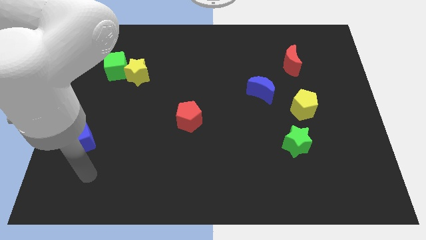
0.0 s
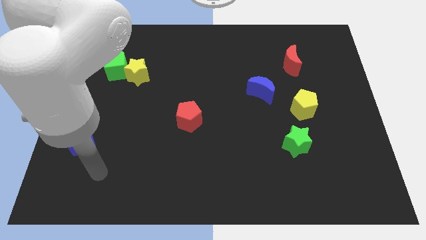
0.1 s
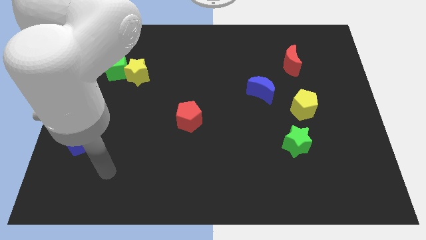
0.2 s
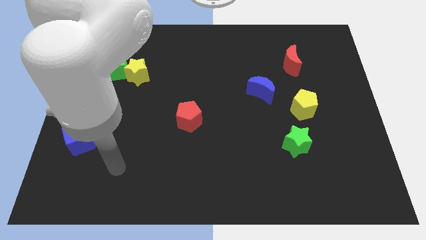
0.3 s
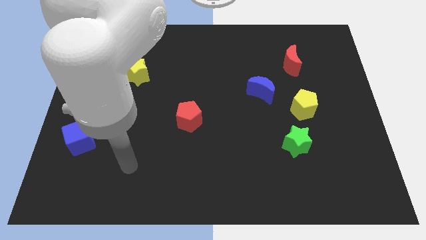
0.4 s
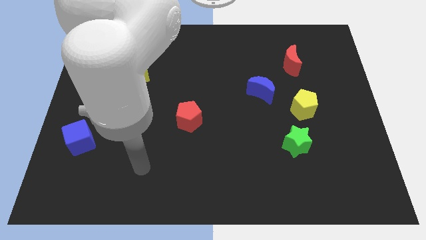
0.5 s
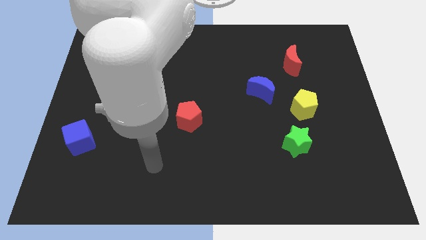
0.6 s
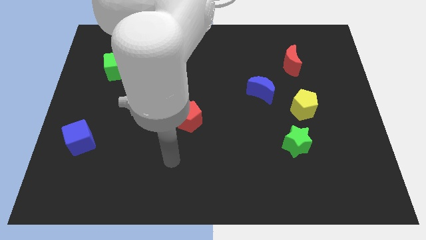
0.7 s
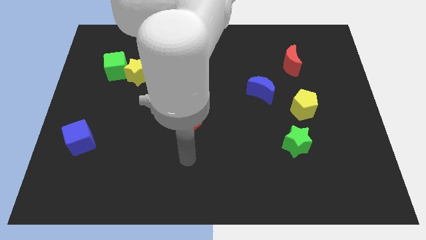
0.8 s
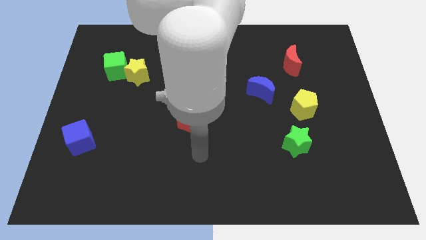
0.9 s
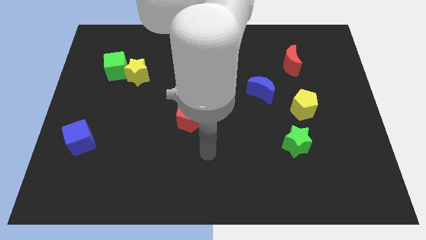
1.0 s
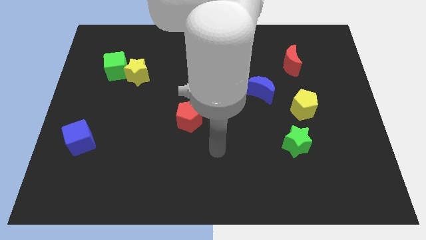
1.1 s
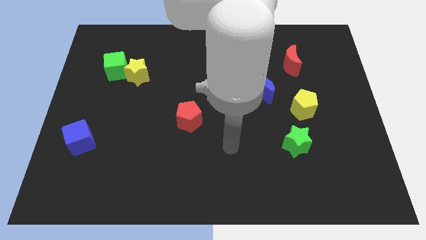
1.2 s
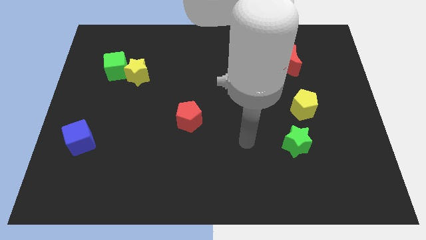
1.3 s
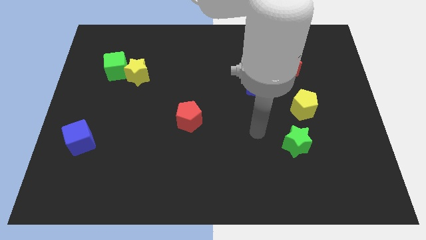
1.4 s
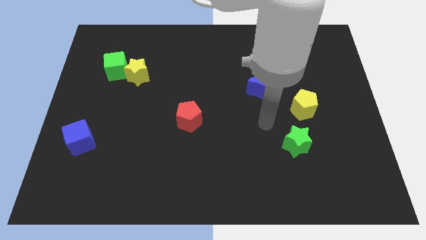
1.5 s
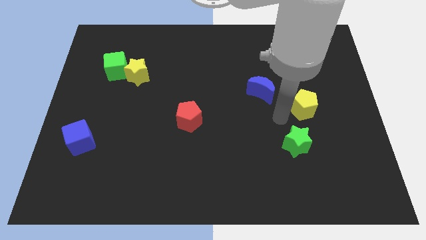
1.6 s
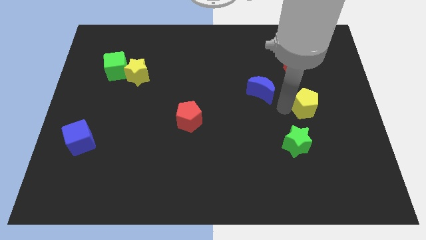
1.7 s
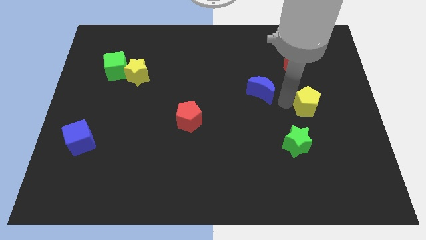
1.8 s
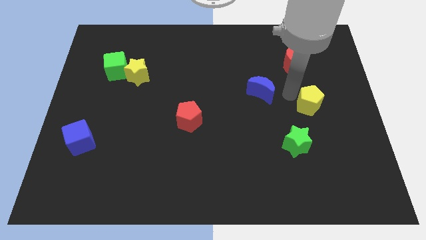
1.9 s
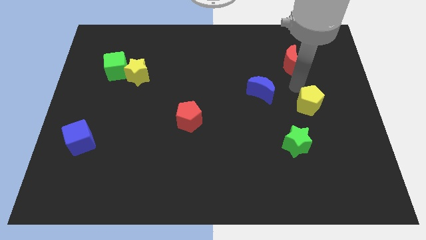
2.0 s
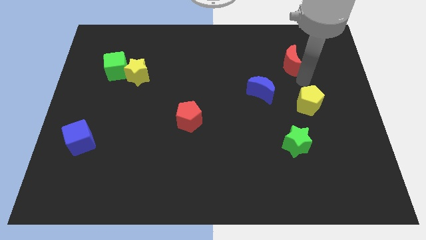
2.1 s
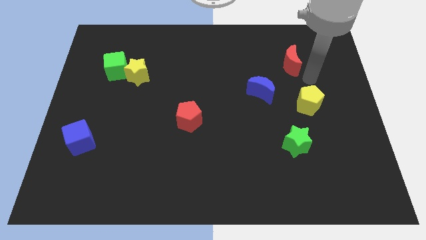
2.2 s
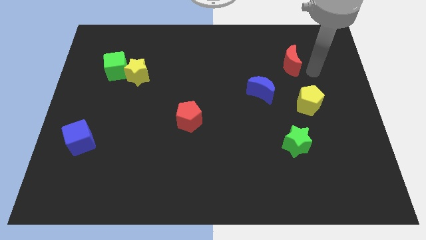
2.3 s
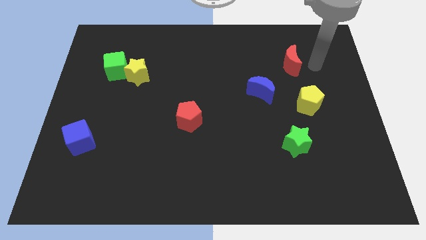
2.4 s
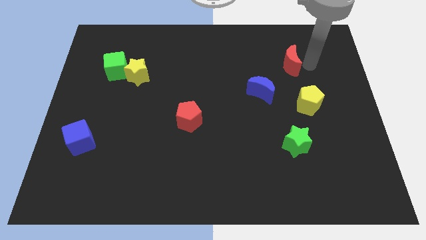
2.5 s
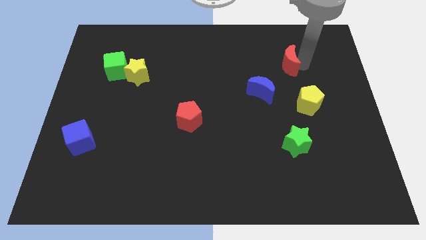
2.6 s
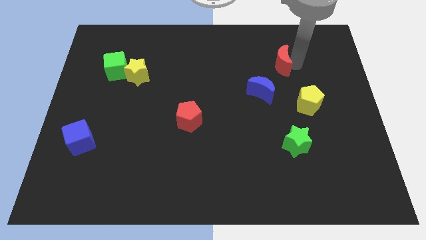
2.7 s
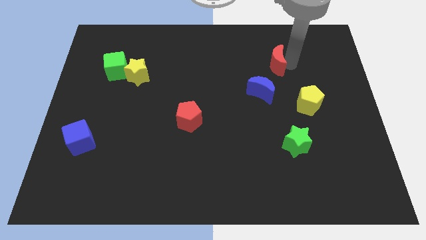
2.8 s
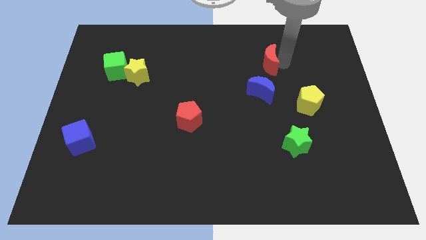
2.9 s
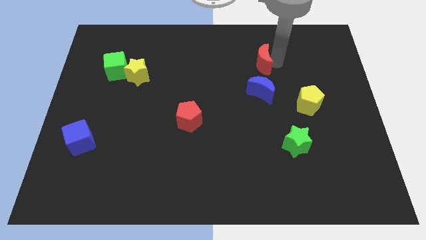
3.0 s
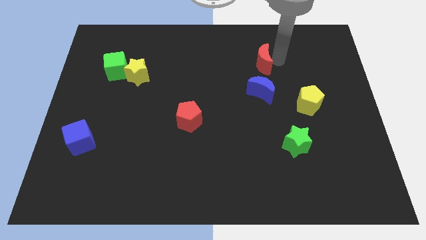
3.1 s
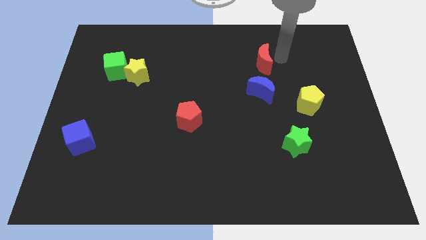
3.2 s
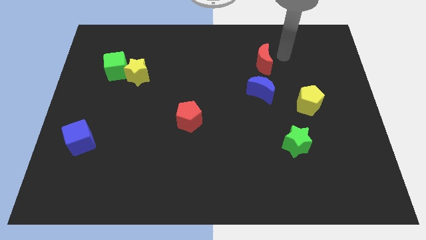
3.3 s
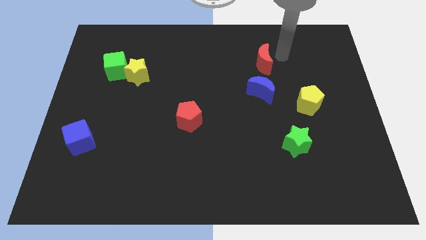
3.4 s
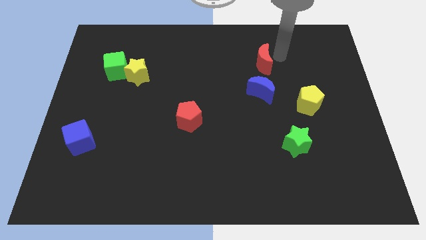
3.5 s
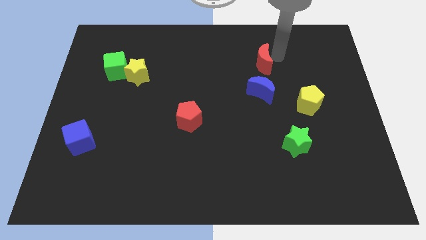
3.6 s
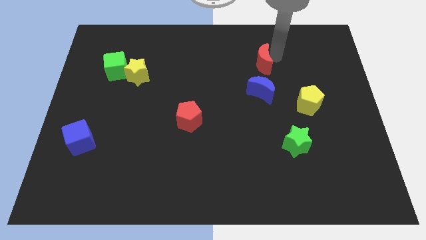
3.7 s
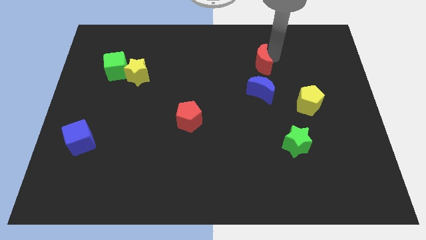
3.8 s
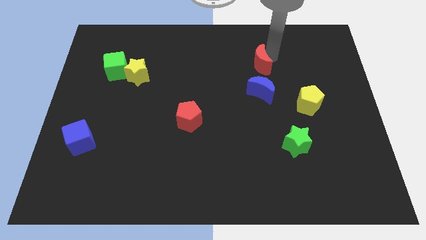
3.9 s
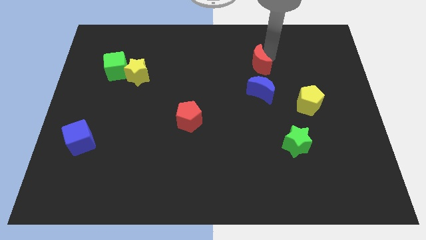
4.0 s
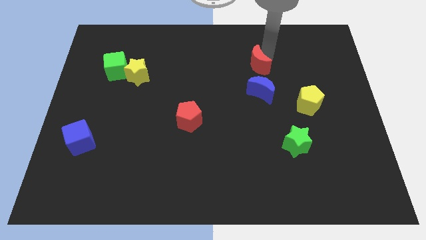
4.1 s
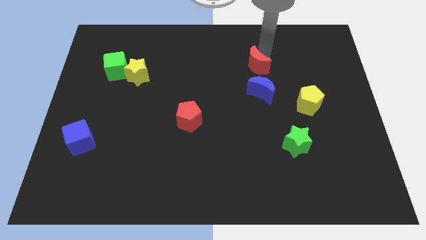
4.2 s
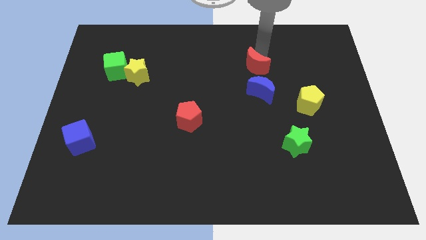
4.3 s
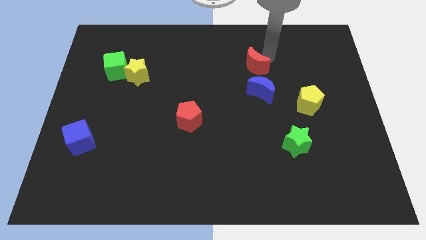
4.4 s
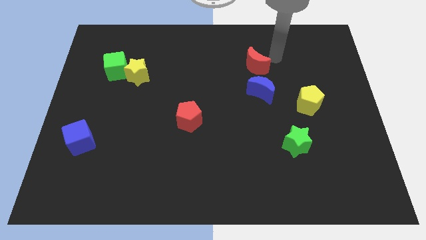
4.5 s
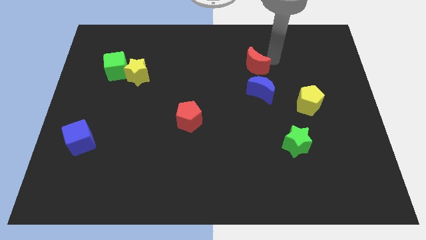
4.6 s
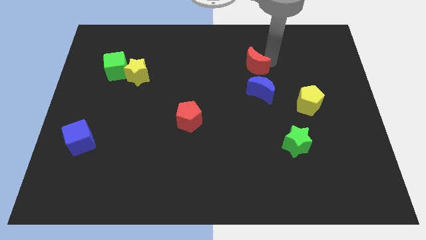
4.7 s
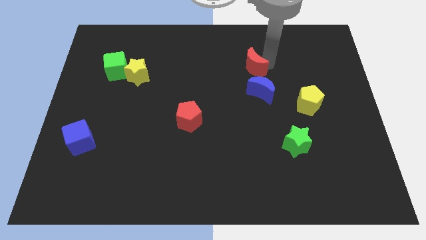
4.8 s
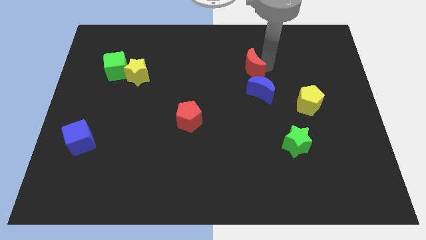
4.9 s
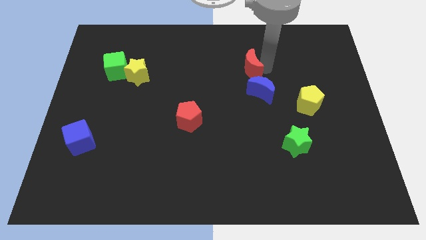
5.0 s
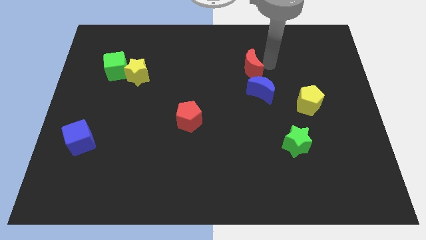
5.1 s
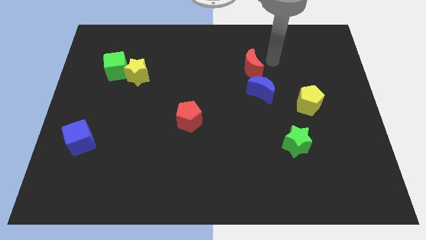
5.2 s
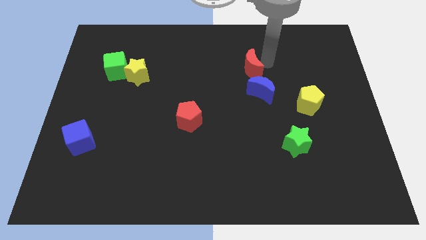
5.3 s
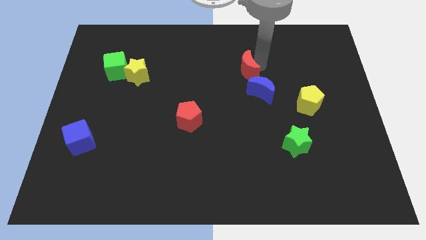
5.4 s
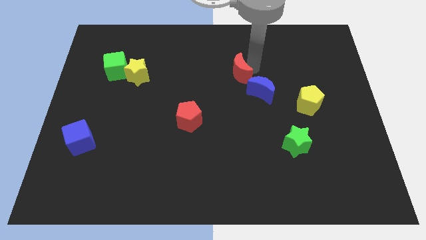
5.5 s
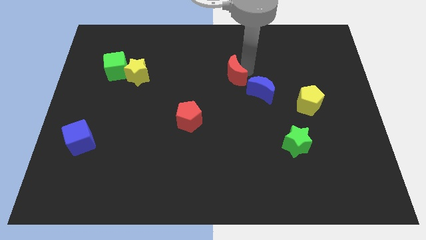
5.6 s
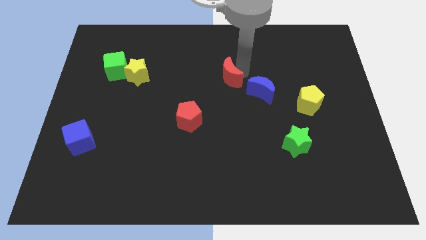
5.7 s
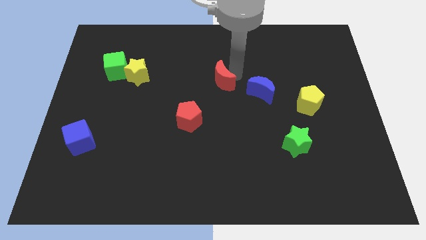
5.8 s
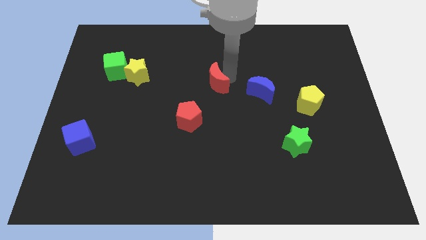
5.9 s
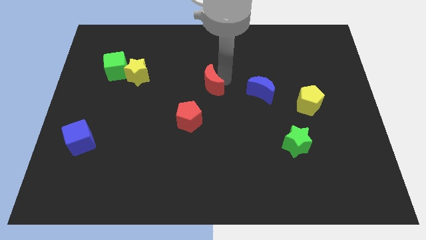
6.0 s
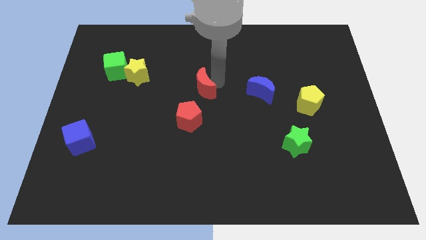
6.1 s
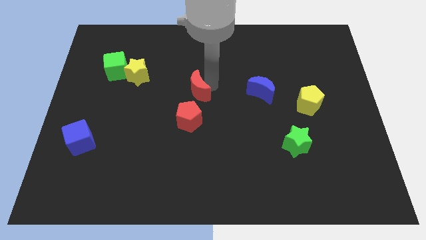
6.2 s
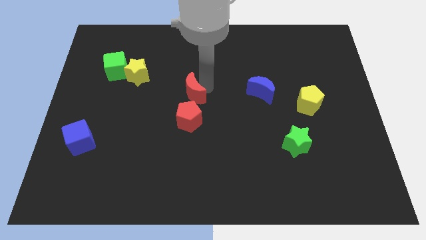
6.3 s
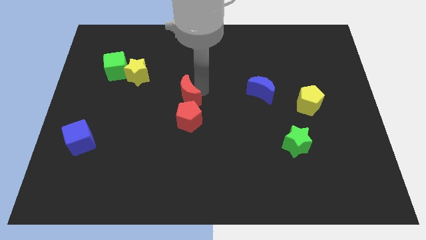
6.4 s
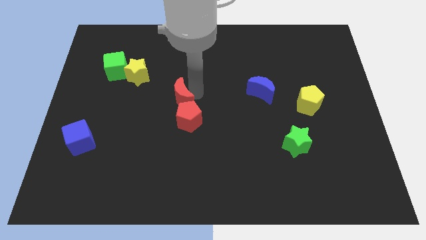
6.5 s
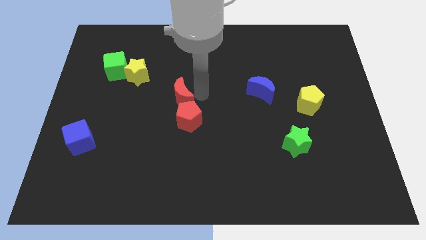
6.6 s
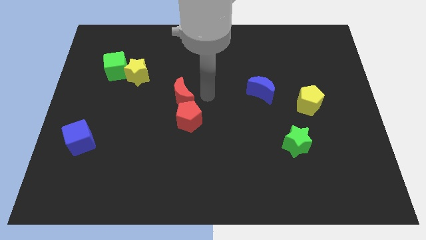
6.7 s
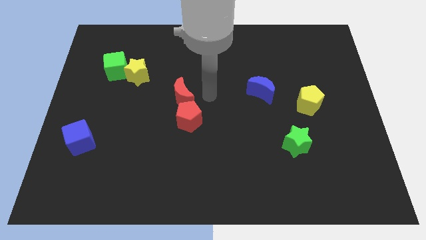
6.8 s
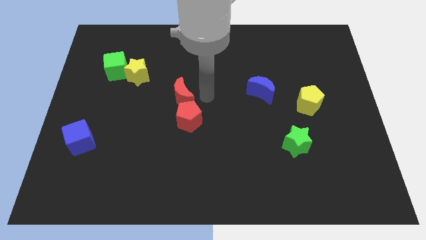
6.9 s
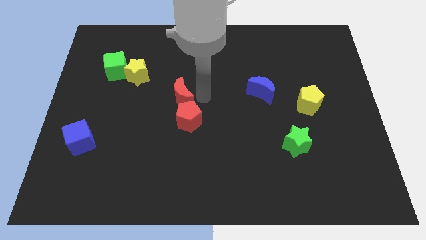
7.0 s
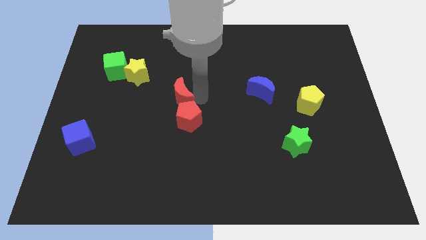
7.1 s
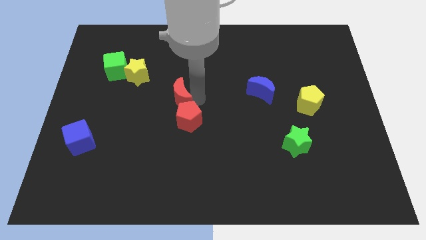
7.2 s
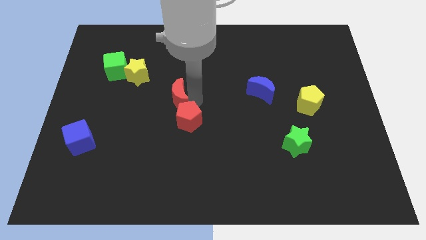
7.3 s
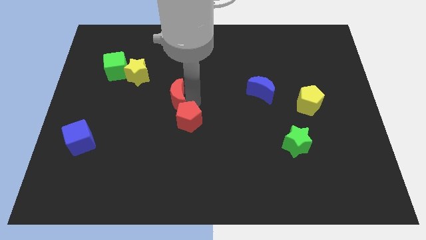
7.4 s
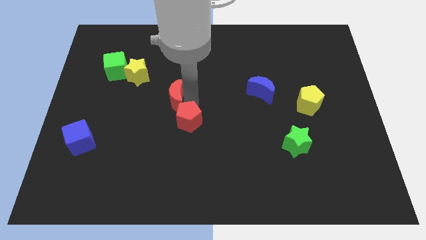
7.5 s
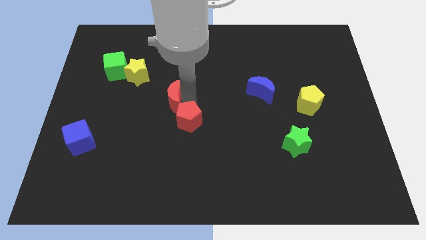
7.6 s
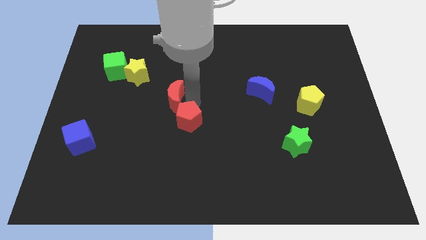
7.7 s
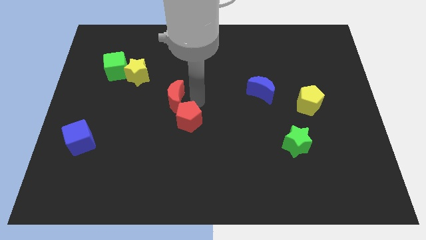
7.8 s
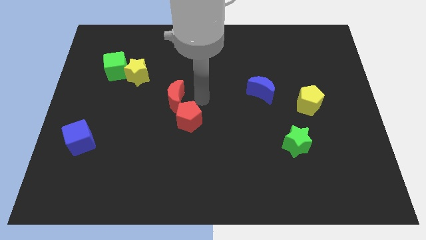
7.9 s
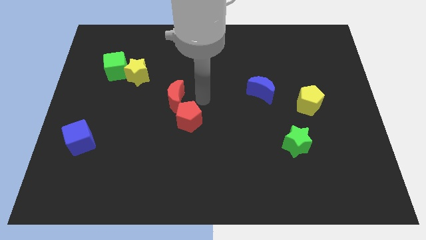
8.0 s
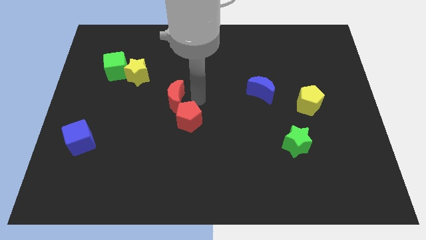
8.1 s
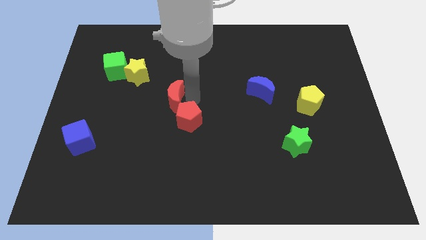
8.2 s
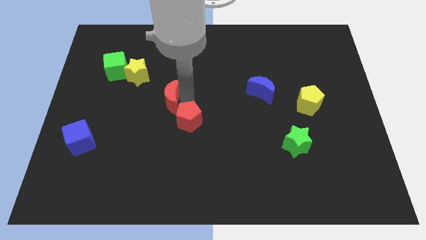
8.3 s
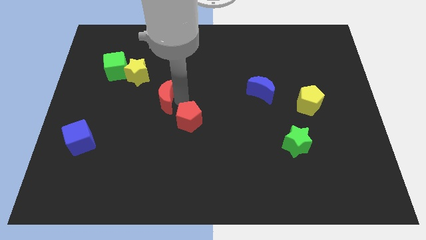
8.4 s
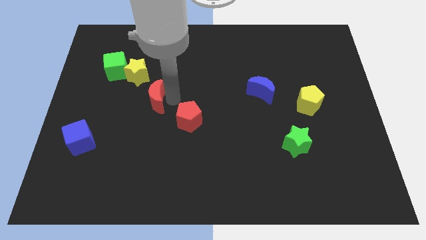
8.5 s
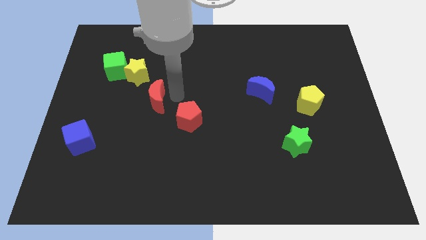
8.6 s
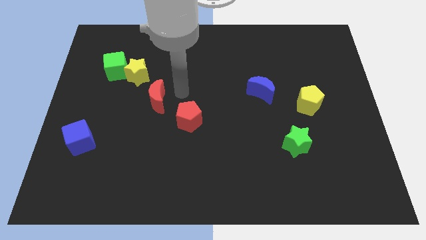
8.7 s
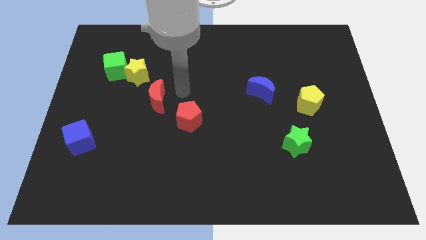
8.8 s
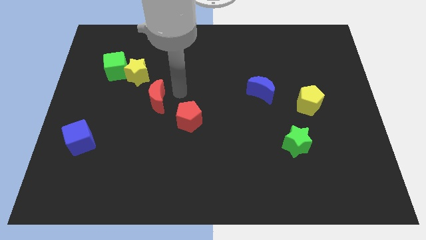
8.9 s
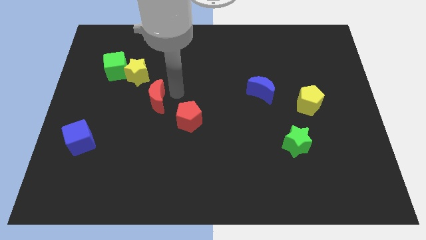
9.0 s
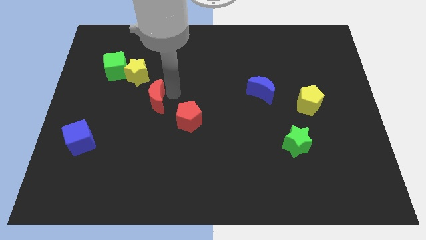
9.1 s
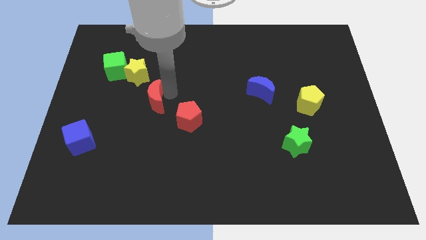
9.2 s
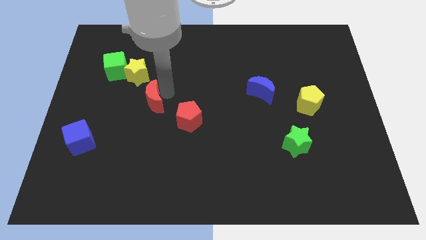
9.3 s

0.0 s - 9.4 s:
move the red moon to the bottom side of the yellow star
